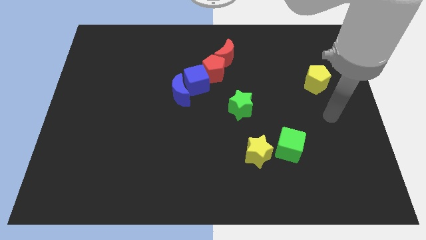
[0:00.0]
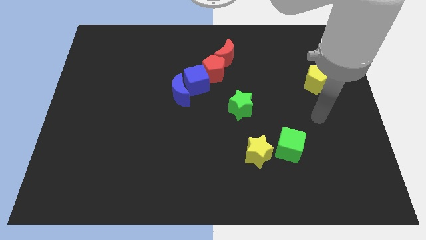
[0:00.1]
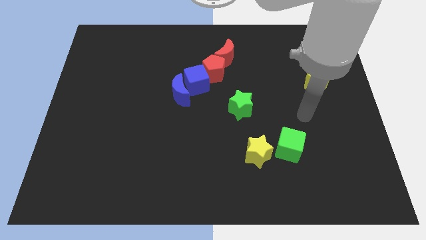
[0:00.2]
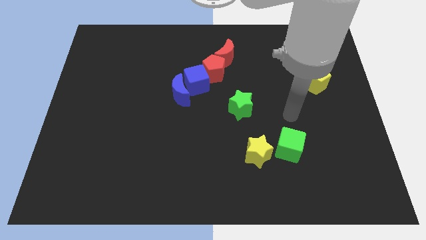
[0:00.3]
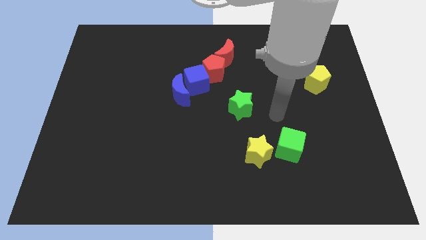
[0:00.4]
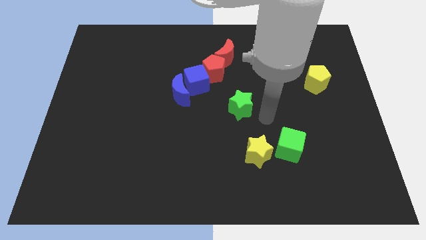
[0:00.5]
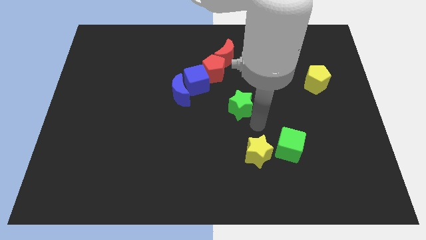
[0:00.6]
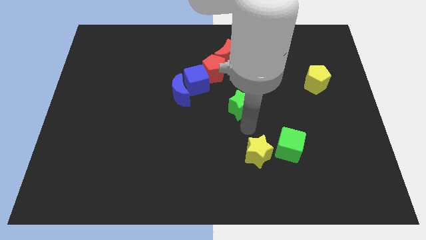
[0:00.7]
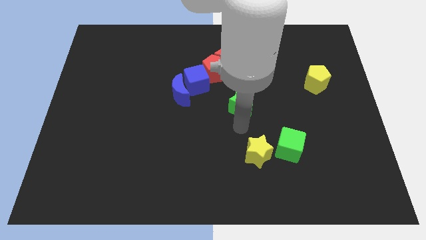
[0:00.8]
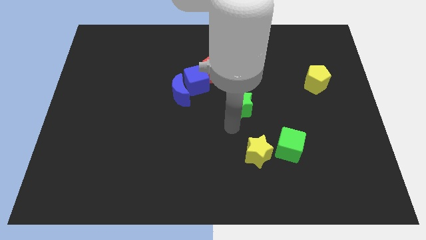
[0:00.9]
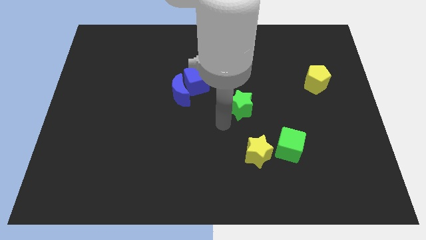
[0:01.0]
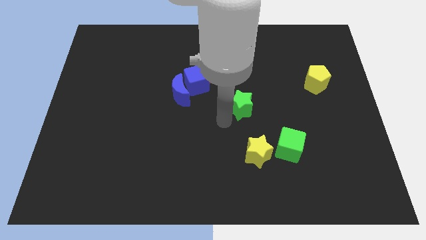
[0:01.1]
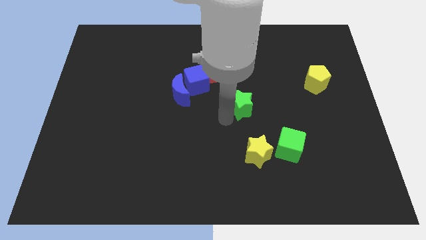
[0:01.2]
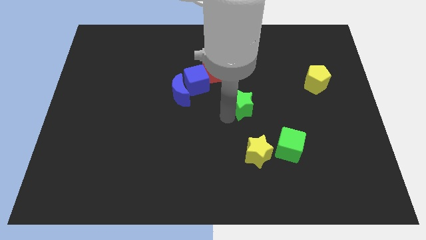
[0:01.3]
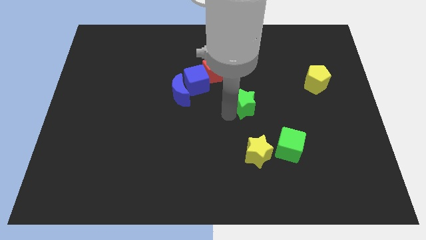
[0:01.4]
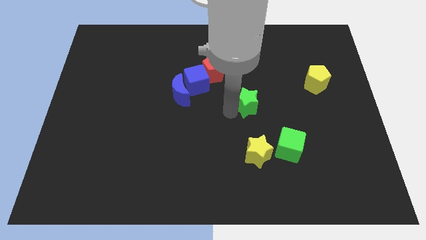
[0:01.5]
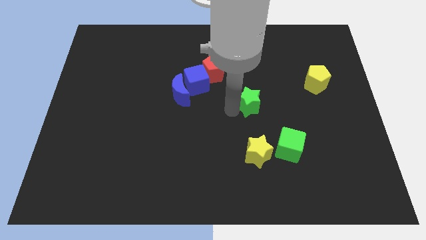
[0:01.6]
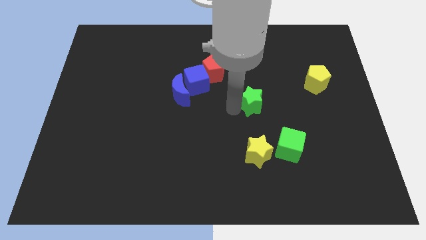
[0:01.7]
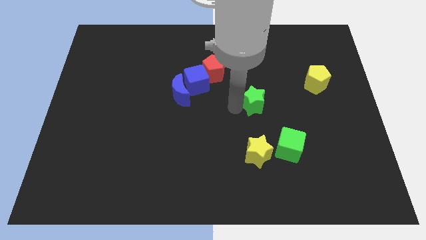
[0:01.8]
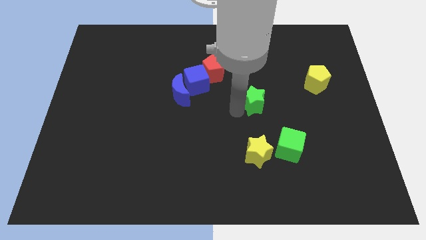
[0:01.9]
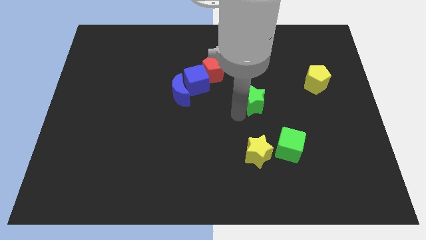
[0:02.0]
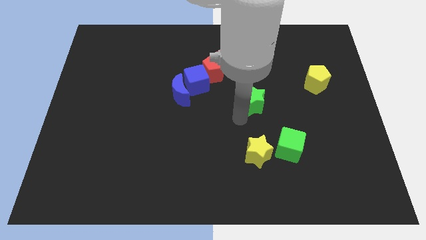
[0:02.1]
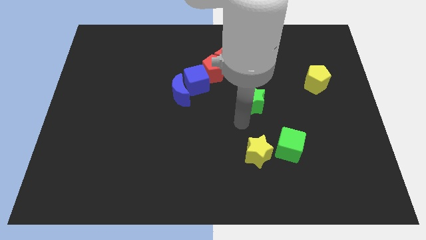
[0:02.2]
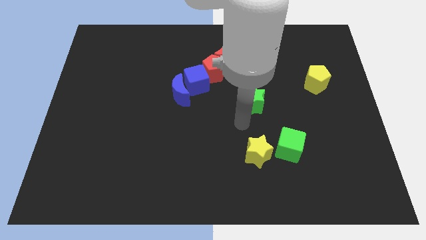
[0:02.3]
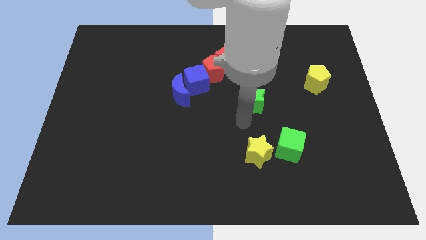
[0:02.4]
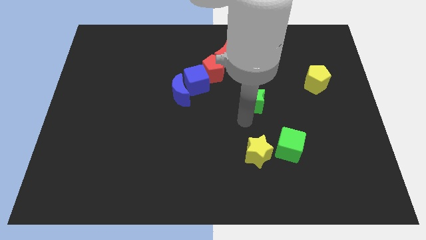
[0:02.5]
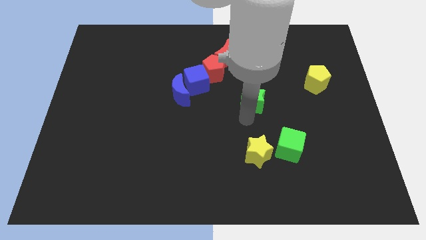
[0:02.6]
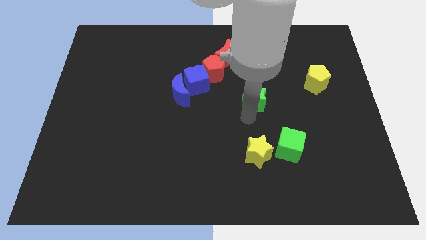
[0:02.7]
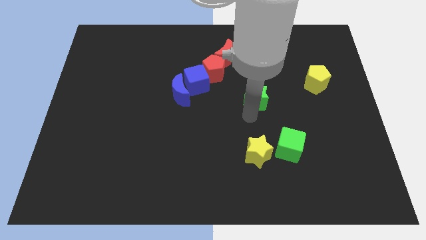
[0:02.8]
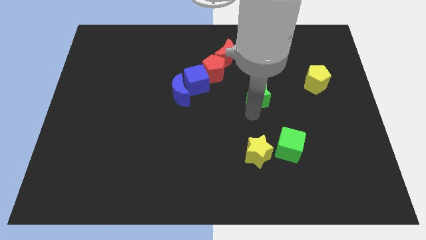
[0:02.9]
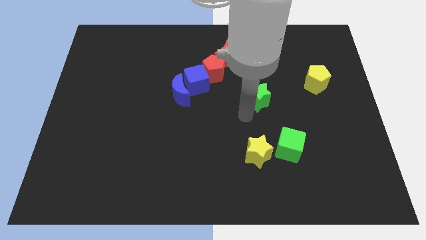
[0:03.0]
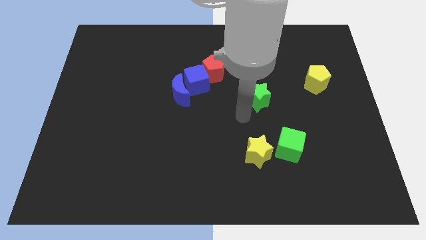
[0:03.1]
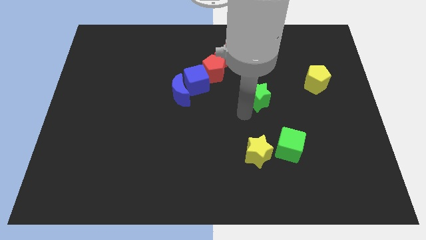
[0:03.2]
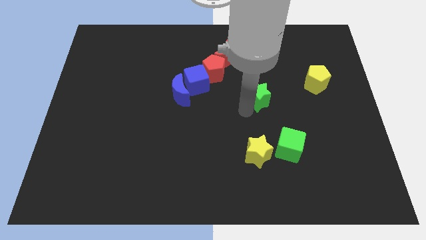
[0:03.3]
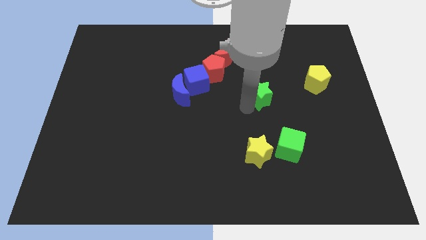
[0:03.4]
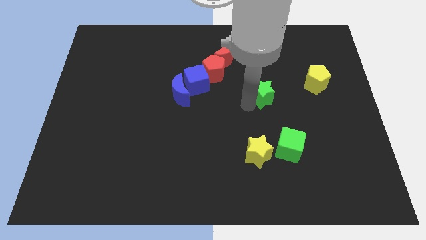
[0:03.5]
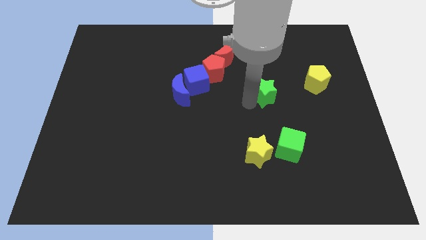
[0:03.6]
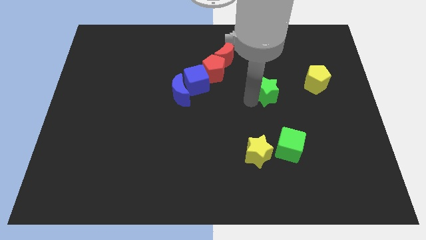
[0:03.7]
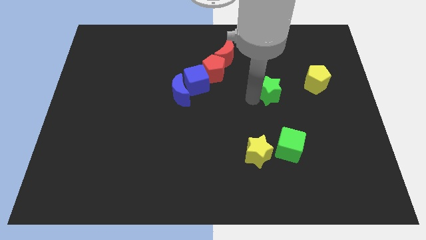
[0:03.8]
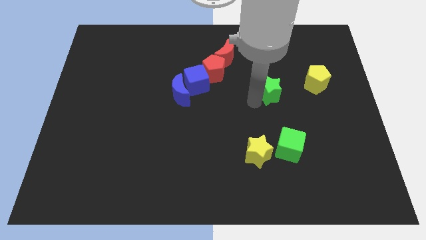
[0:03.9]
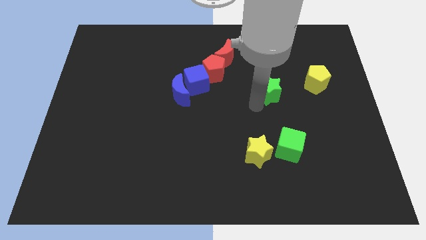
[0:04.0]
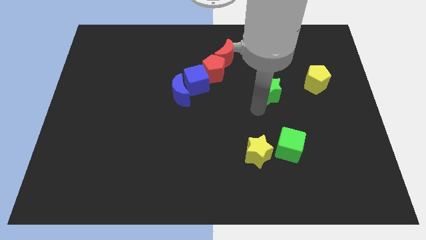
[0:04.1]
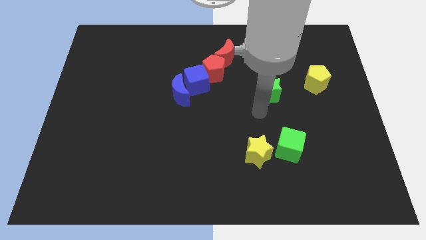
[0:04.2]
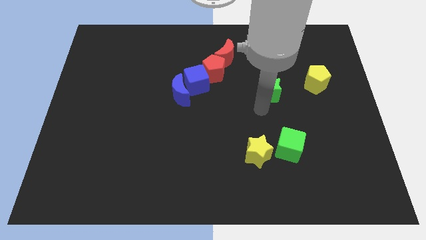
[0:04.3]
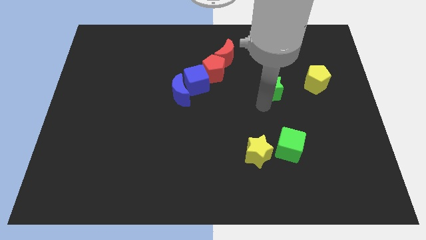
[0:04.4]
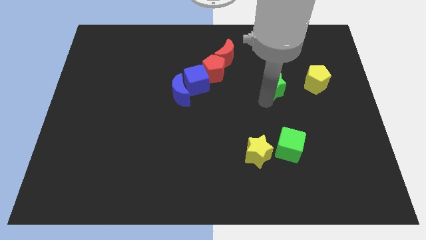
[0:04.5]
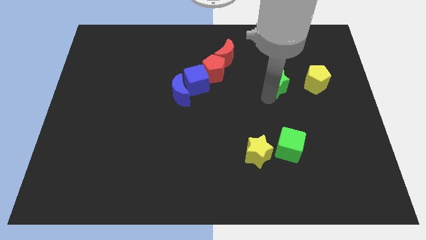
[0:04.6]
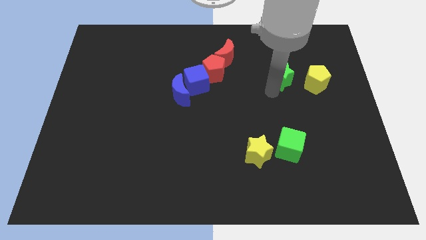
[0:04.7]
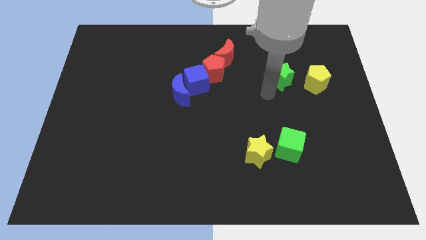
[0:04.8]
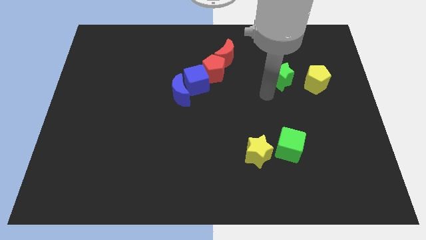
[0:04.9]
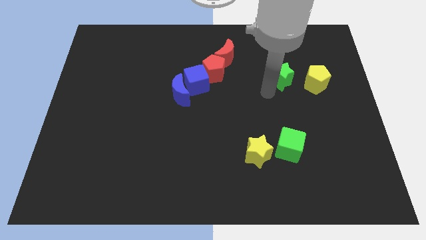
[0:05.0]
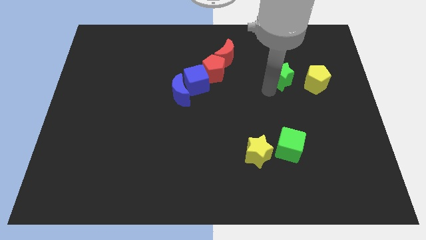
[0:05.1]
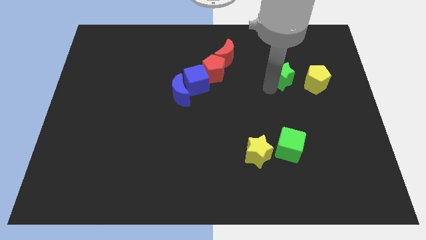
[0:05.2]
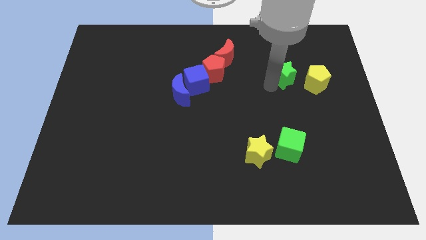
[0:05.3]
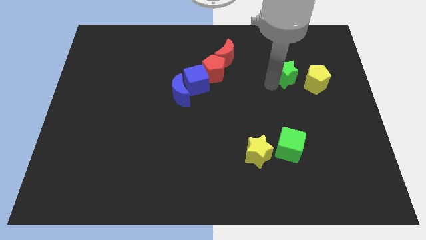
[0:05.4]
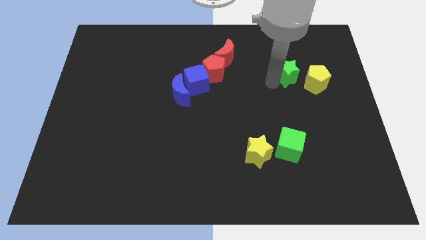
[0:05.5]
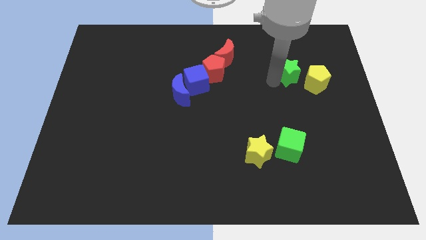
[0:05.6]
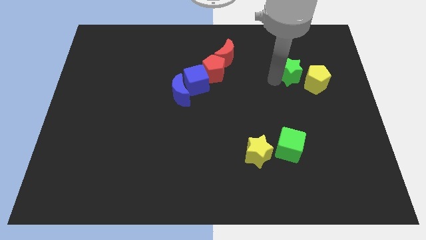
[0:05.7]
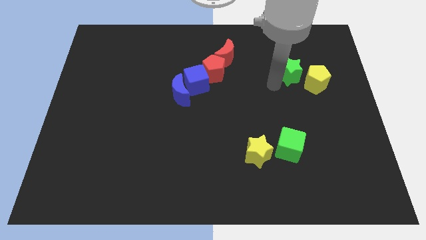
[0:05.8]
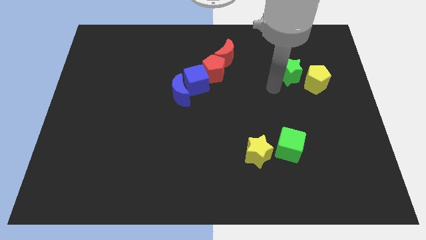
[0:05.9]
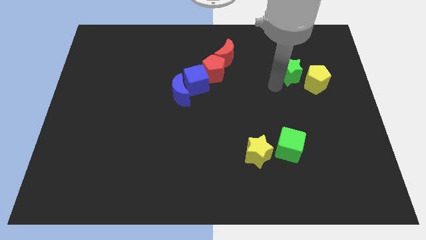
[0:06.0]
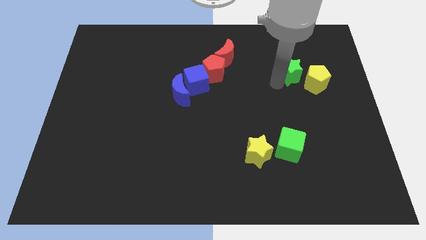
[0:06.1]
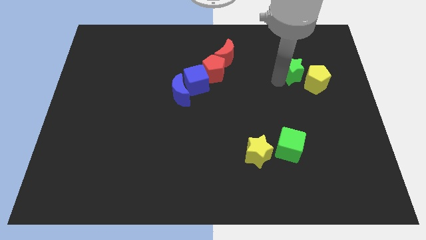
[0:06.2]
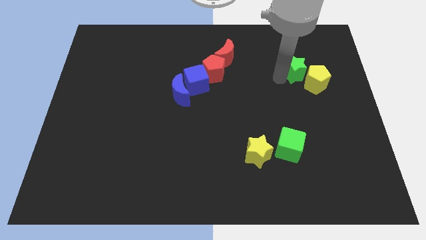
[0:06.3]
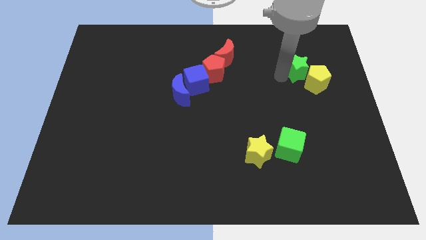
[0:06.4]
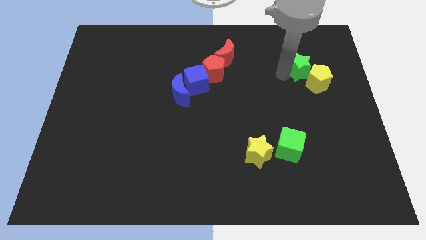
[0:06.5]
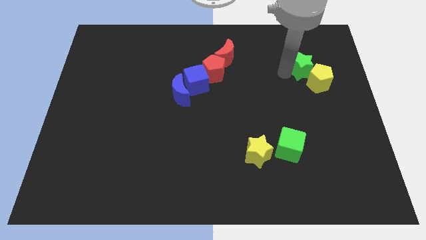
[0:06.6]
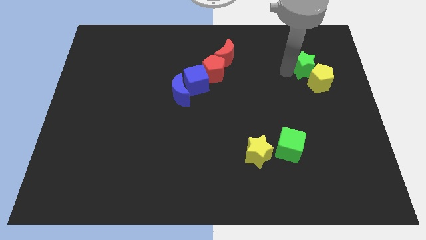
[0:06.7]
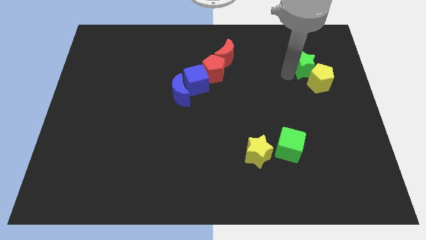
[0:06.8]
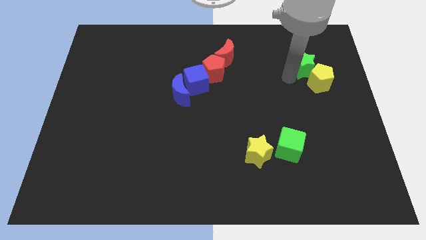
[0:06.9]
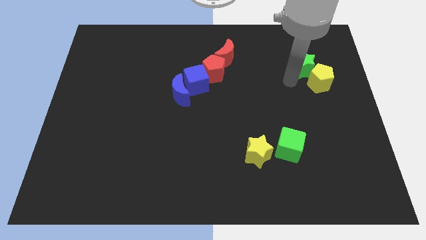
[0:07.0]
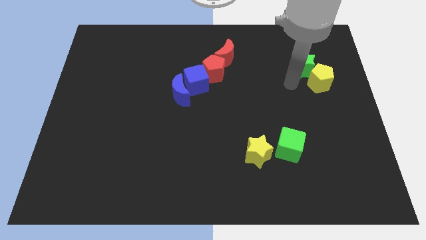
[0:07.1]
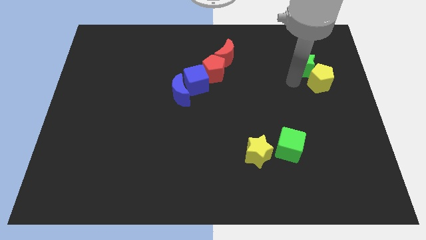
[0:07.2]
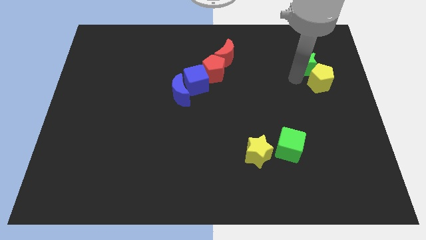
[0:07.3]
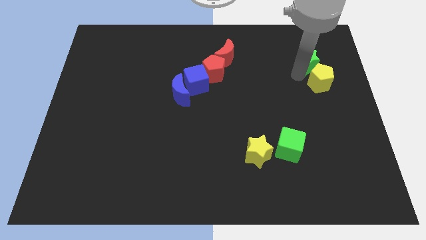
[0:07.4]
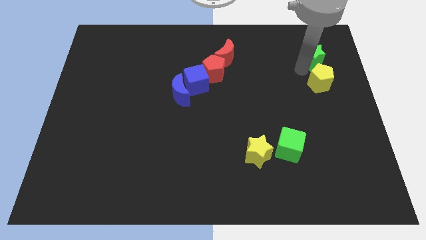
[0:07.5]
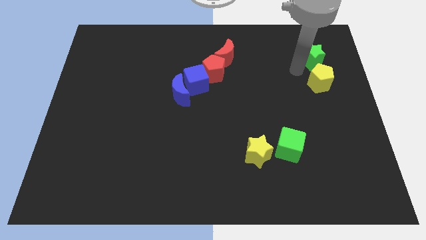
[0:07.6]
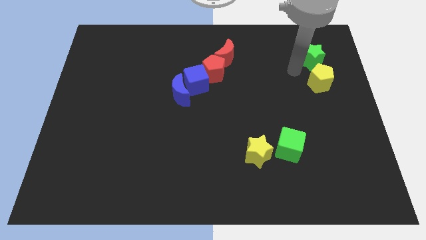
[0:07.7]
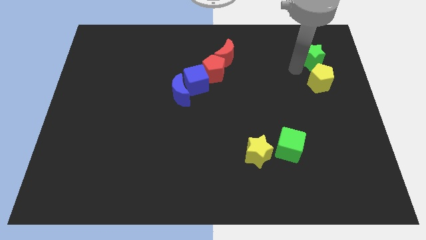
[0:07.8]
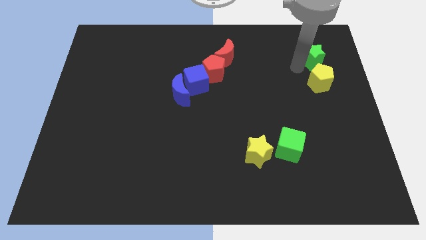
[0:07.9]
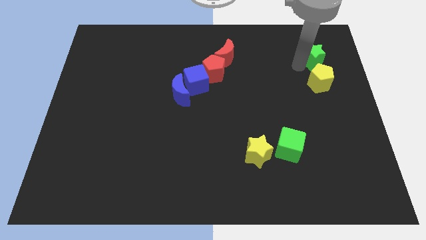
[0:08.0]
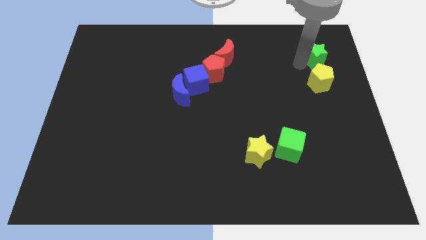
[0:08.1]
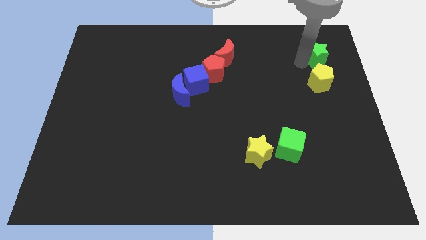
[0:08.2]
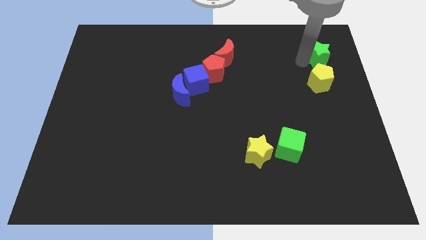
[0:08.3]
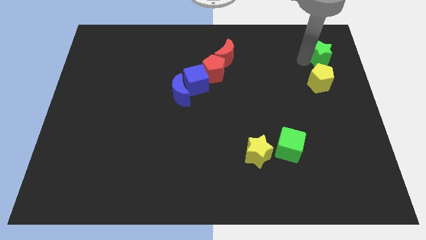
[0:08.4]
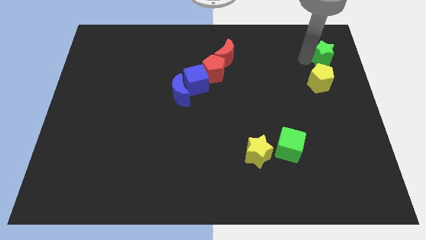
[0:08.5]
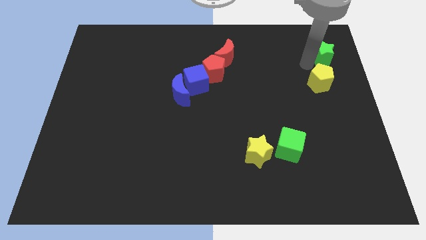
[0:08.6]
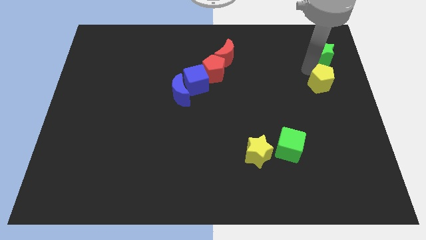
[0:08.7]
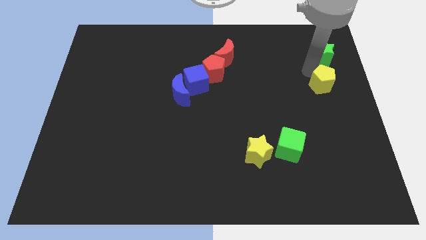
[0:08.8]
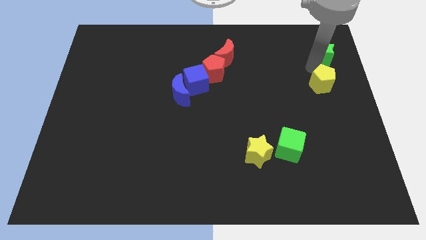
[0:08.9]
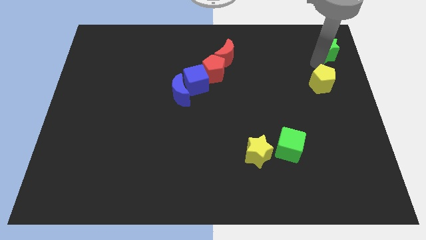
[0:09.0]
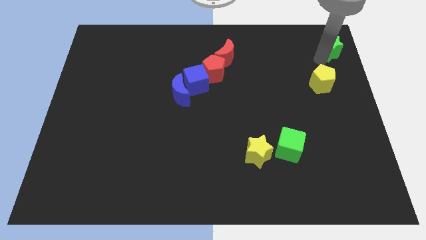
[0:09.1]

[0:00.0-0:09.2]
put the green star to the top right
